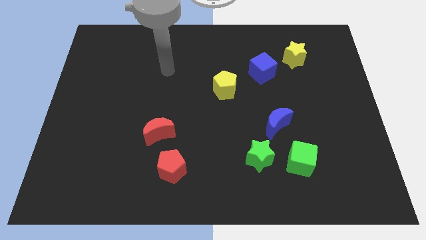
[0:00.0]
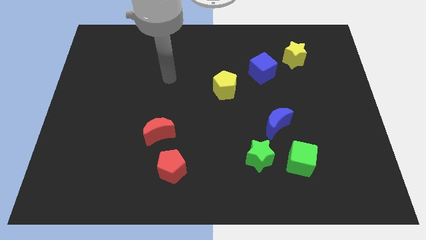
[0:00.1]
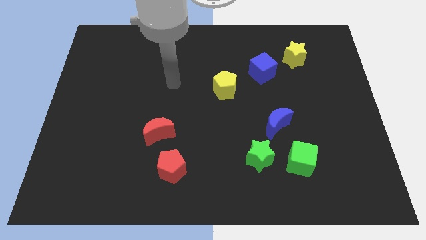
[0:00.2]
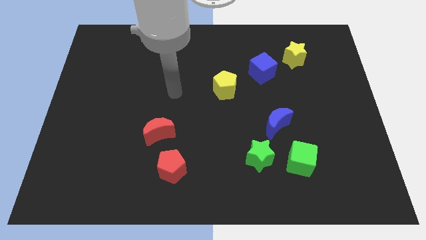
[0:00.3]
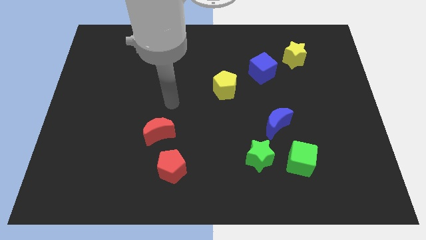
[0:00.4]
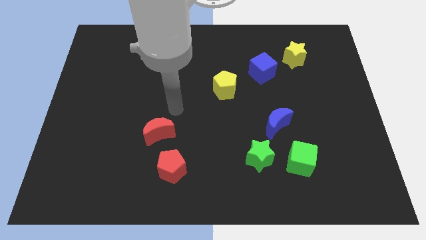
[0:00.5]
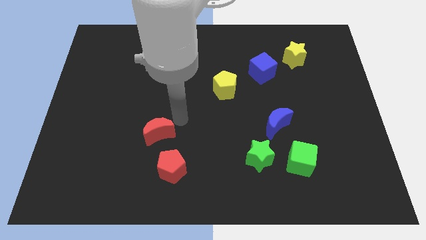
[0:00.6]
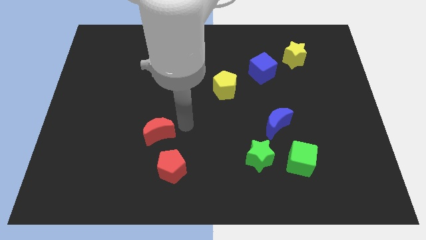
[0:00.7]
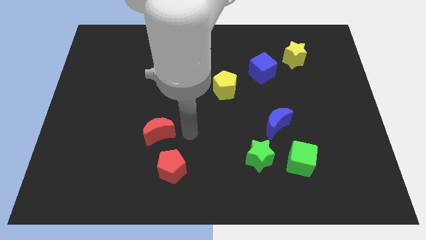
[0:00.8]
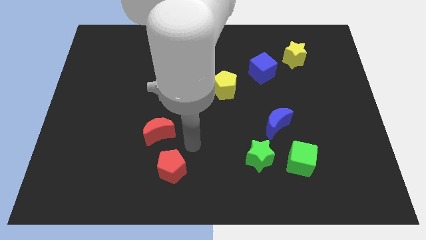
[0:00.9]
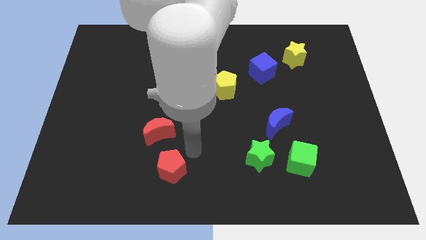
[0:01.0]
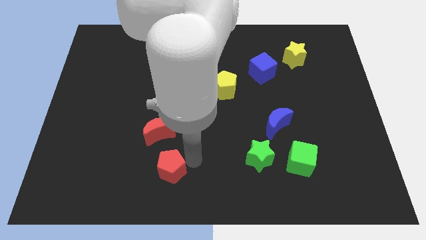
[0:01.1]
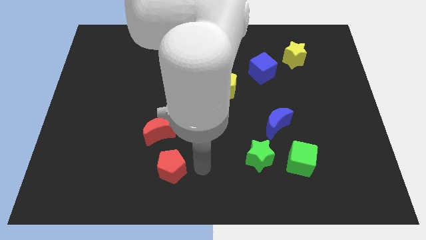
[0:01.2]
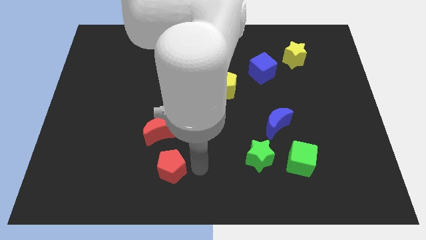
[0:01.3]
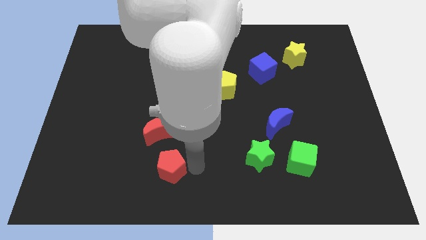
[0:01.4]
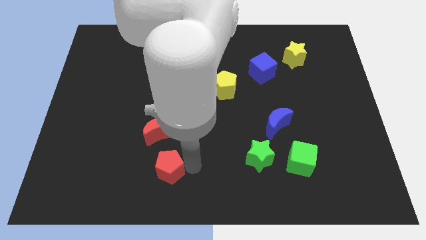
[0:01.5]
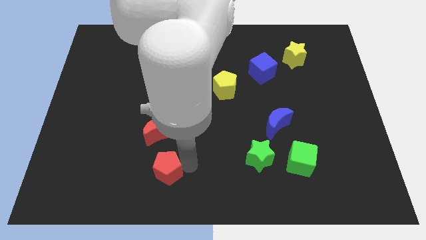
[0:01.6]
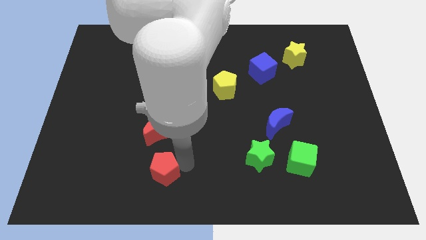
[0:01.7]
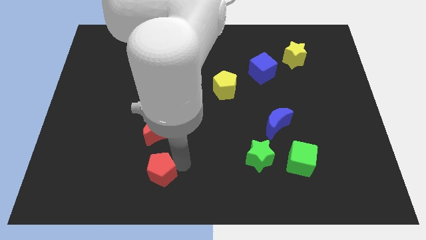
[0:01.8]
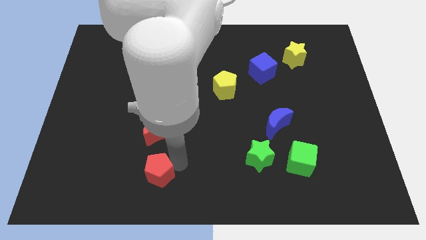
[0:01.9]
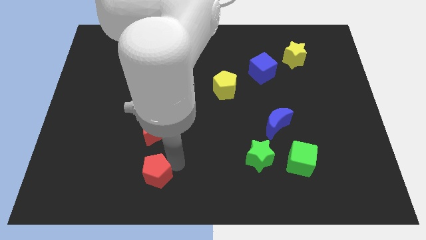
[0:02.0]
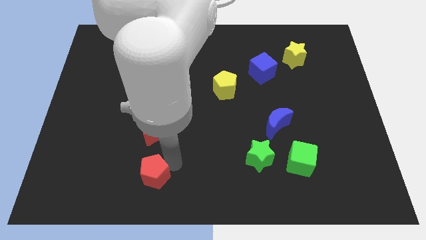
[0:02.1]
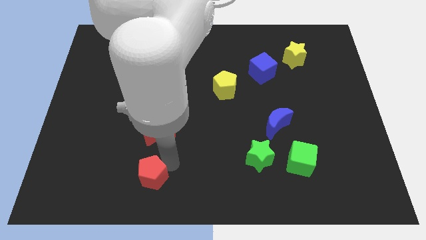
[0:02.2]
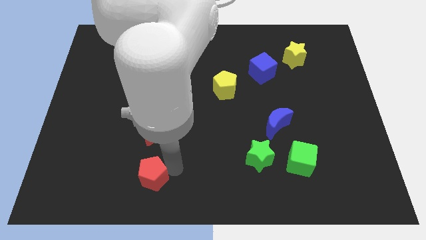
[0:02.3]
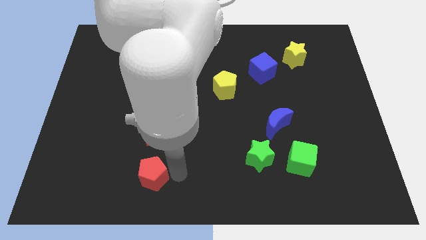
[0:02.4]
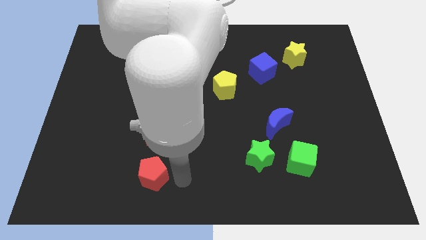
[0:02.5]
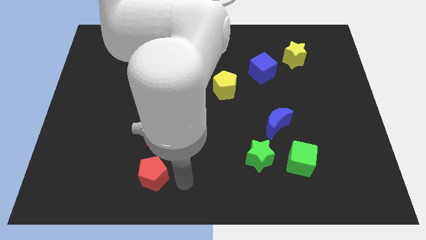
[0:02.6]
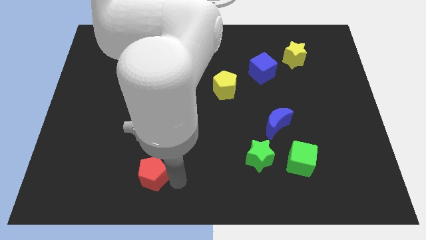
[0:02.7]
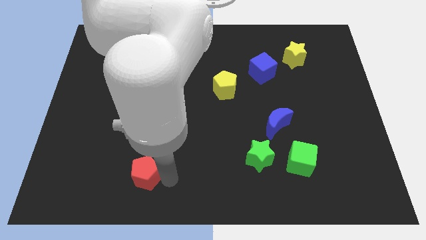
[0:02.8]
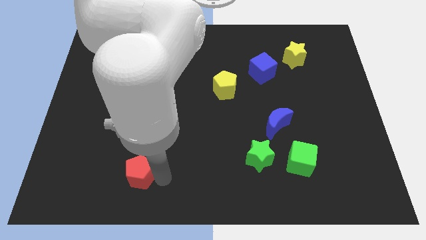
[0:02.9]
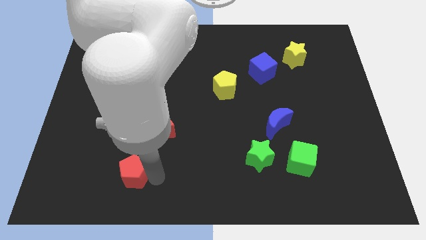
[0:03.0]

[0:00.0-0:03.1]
move the red pentagon slightly left

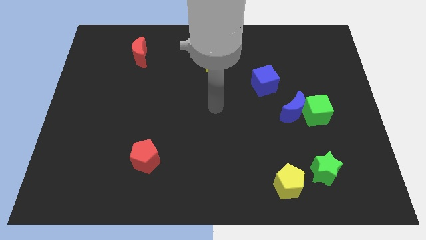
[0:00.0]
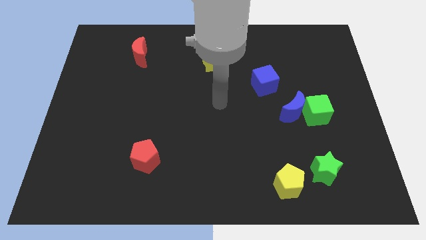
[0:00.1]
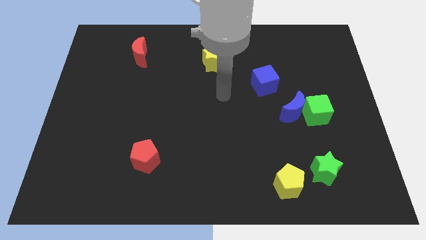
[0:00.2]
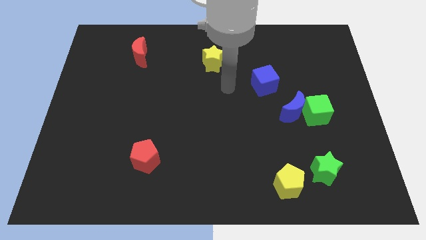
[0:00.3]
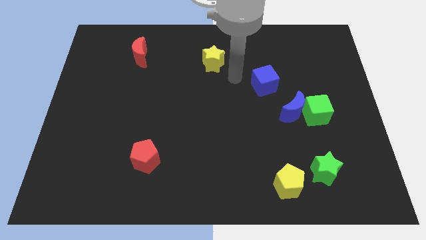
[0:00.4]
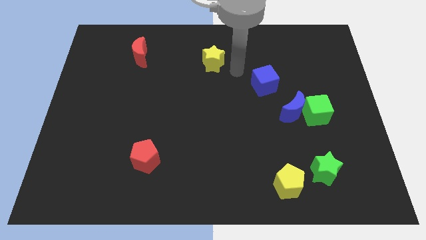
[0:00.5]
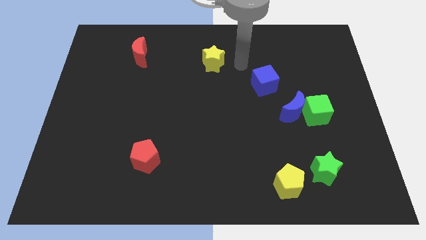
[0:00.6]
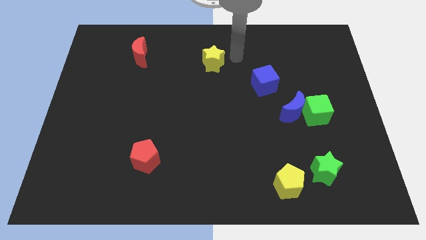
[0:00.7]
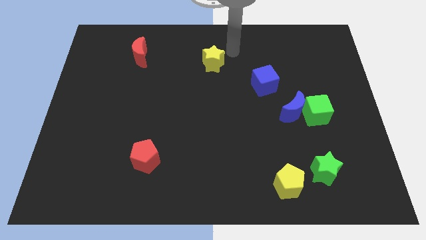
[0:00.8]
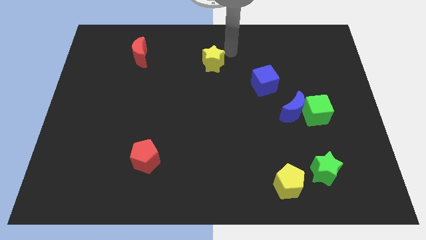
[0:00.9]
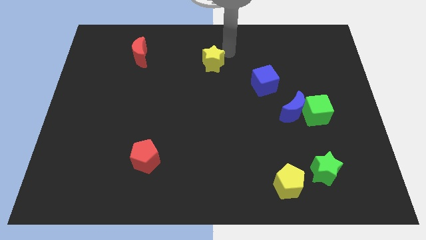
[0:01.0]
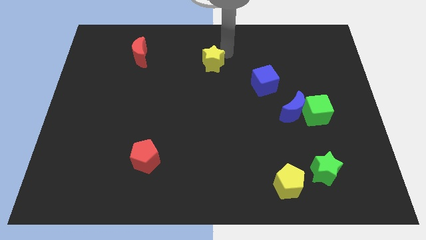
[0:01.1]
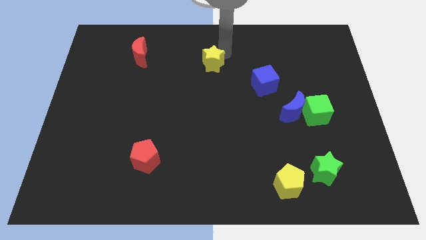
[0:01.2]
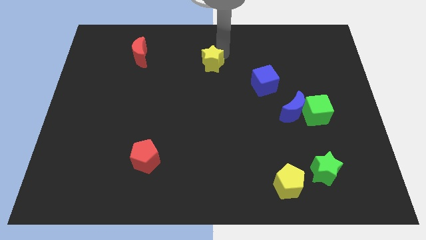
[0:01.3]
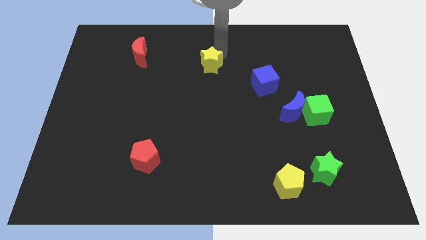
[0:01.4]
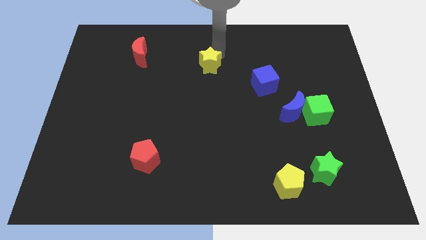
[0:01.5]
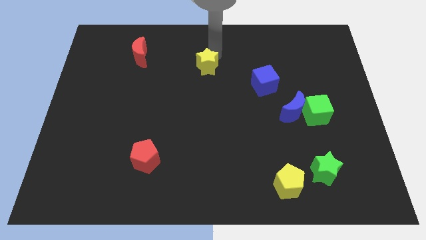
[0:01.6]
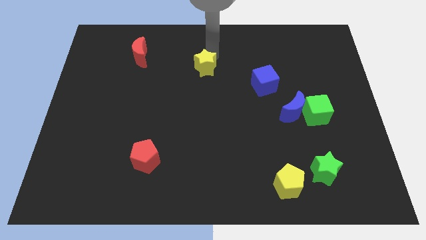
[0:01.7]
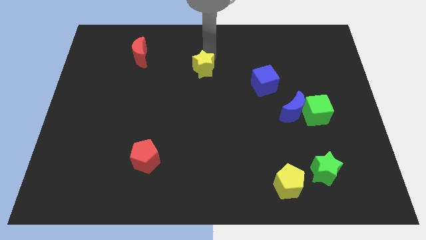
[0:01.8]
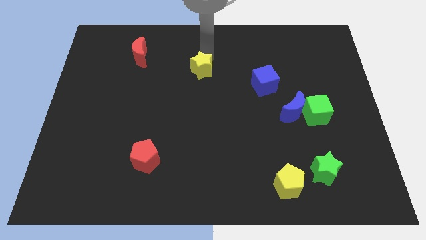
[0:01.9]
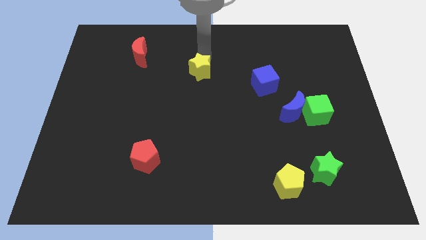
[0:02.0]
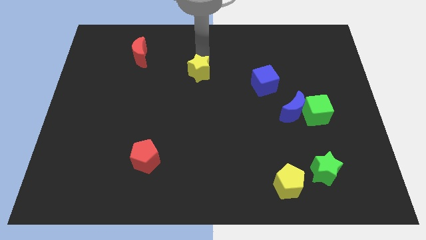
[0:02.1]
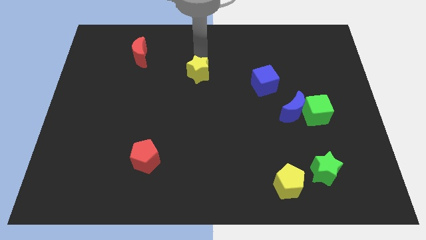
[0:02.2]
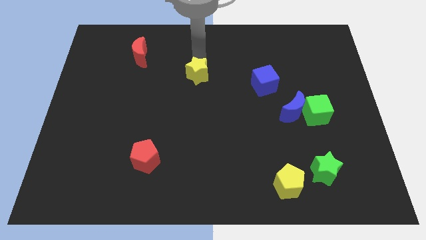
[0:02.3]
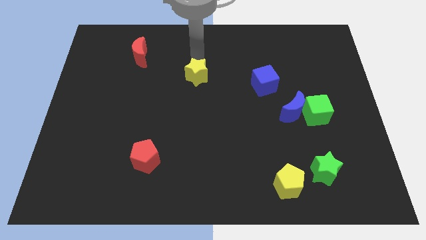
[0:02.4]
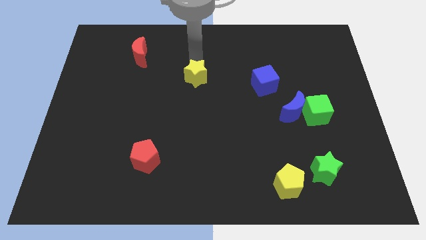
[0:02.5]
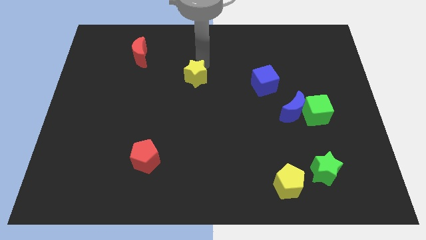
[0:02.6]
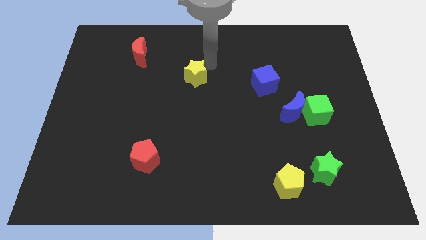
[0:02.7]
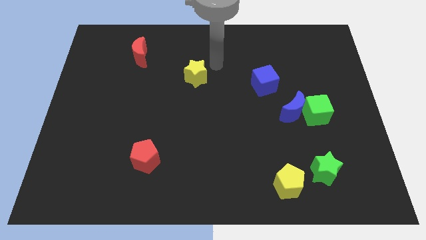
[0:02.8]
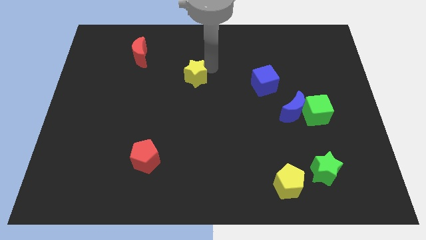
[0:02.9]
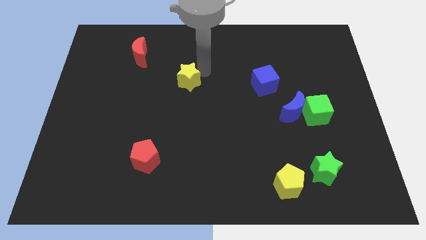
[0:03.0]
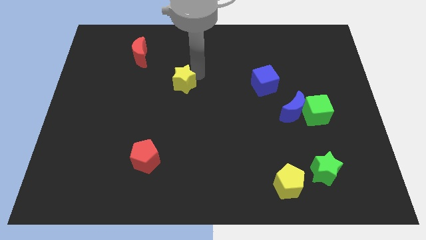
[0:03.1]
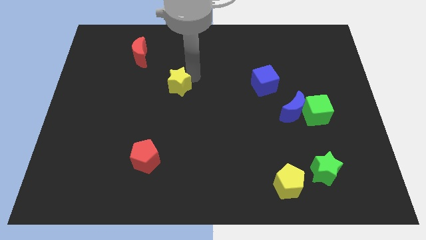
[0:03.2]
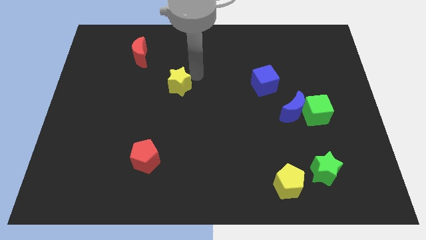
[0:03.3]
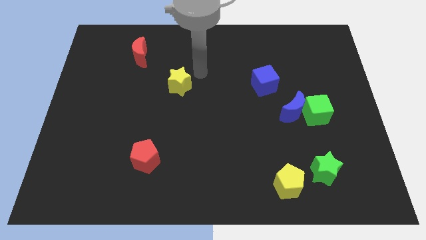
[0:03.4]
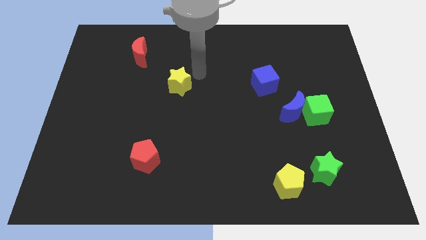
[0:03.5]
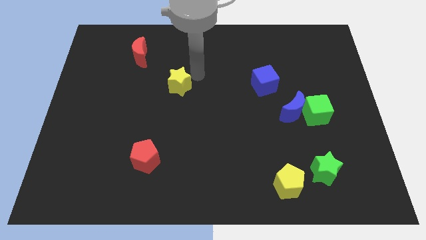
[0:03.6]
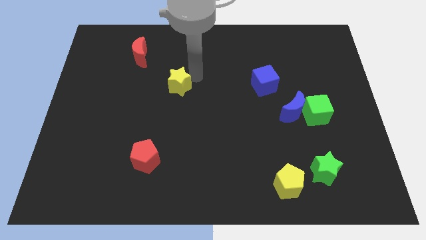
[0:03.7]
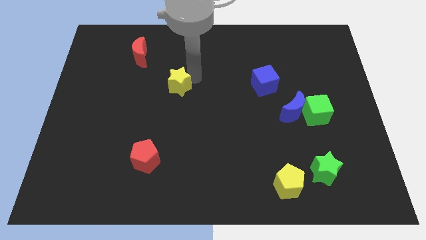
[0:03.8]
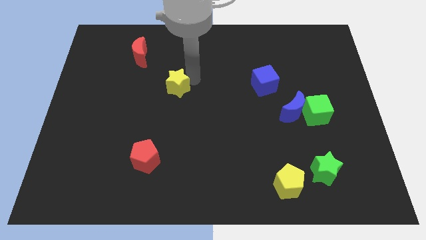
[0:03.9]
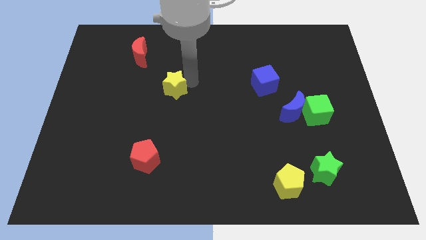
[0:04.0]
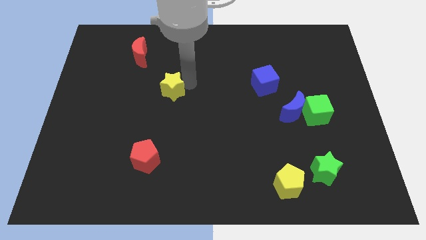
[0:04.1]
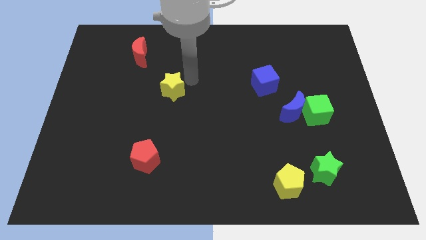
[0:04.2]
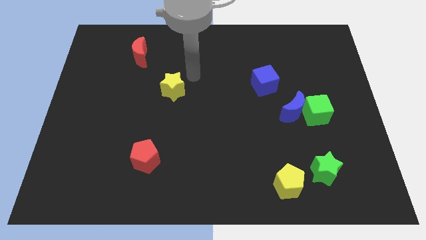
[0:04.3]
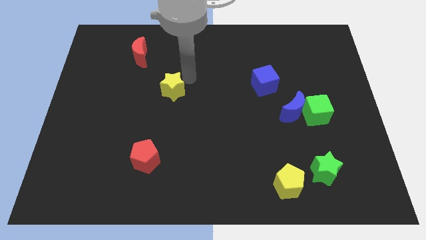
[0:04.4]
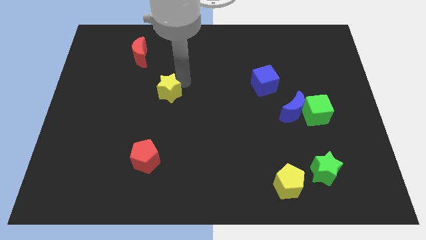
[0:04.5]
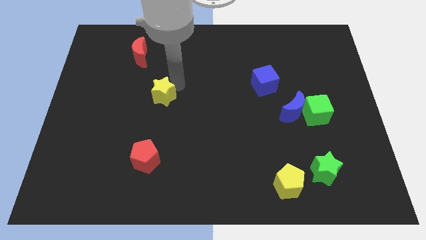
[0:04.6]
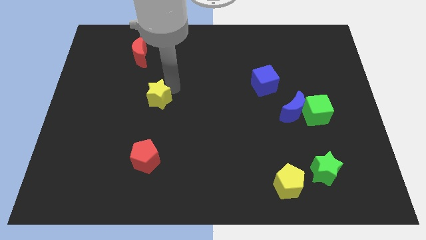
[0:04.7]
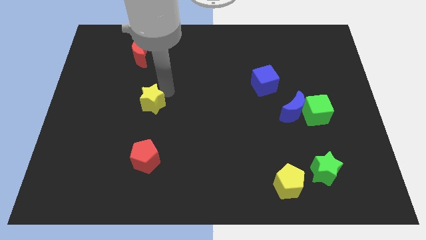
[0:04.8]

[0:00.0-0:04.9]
push the yellow star down and to the left
